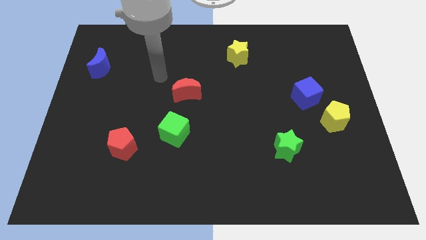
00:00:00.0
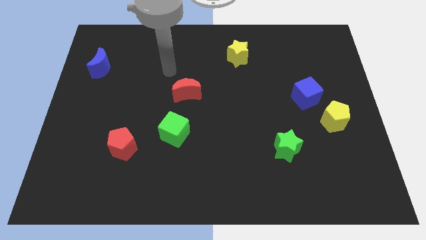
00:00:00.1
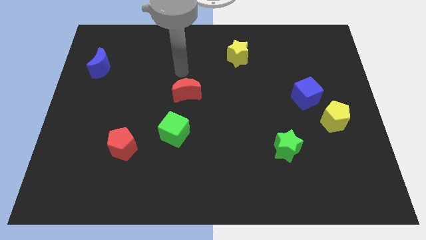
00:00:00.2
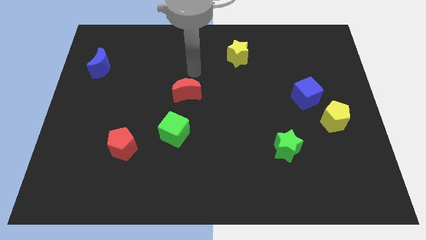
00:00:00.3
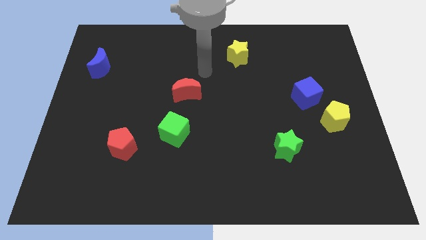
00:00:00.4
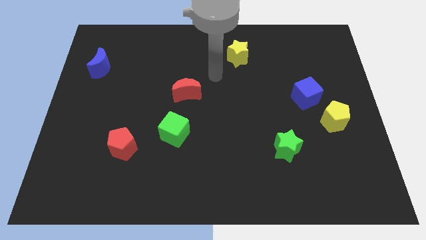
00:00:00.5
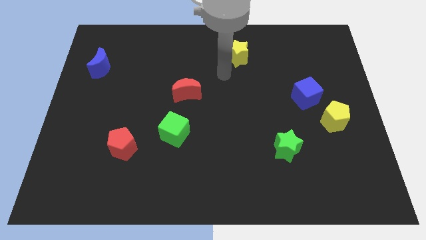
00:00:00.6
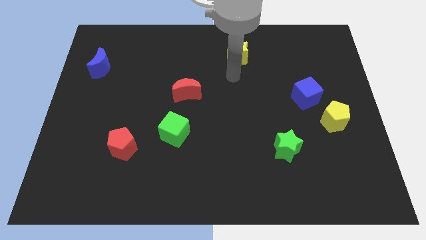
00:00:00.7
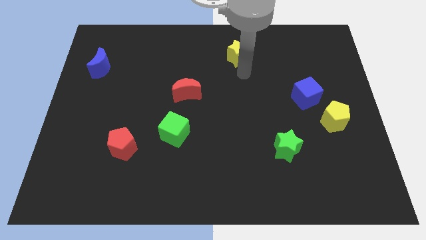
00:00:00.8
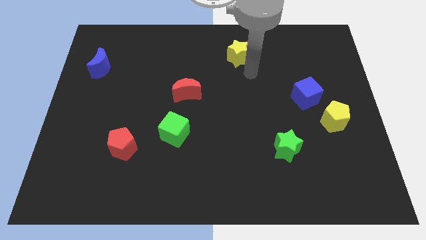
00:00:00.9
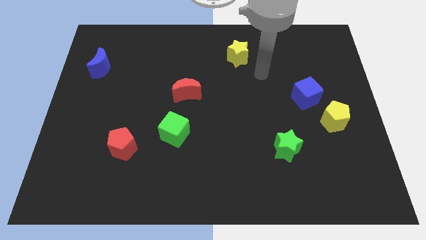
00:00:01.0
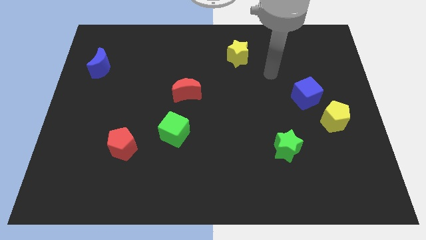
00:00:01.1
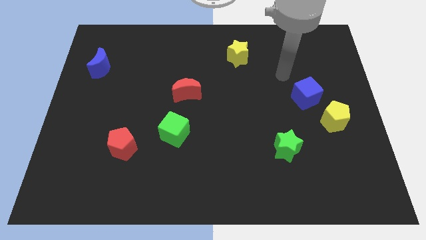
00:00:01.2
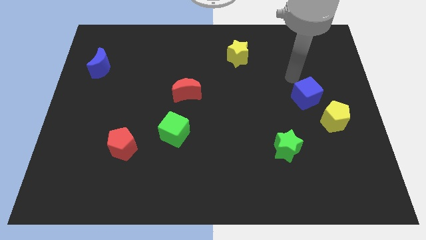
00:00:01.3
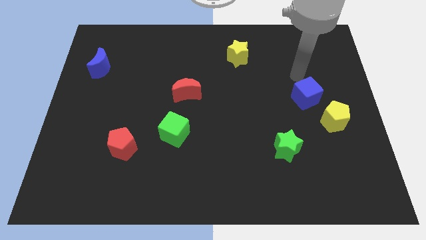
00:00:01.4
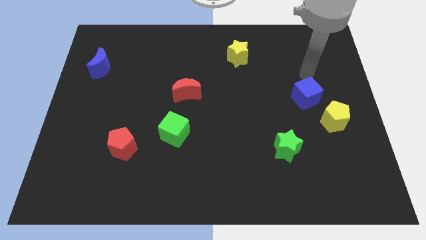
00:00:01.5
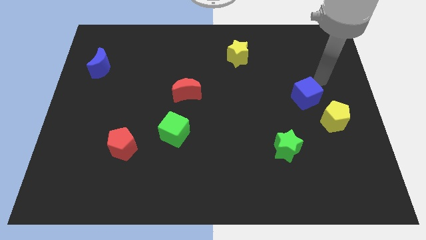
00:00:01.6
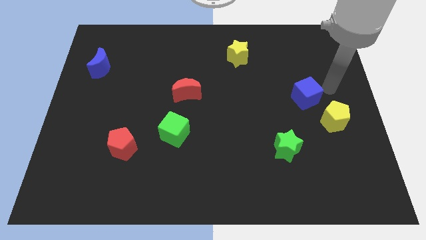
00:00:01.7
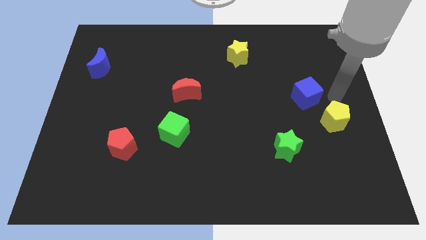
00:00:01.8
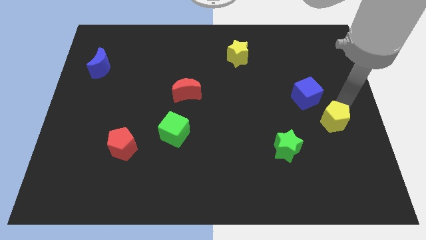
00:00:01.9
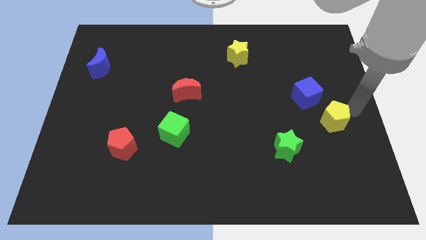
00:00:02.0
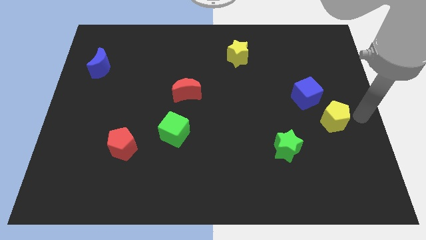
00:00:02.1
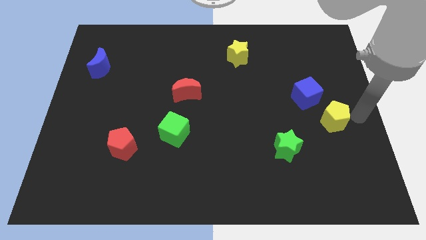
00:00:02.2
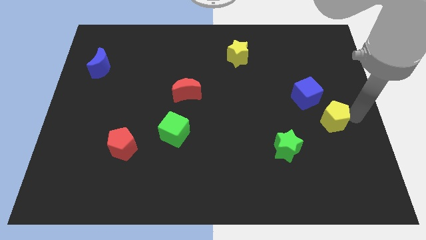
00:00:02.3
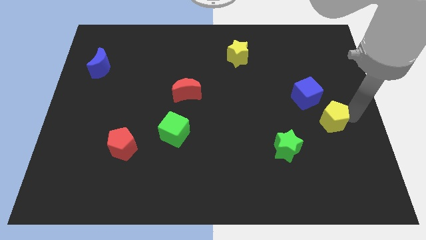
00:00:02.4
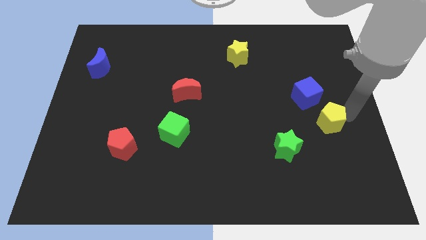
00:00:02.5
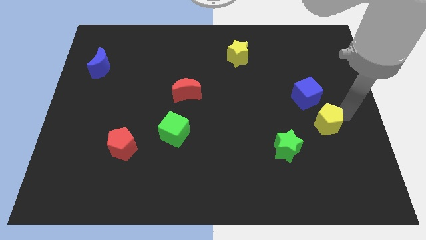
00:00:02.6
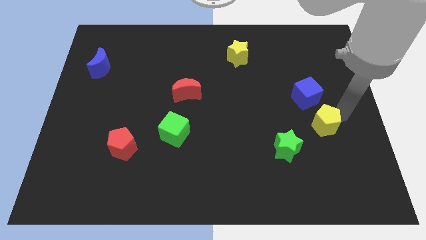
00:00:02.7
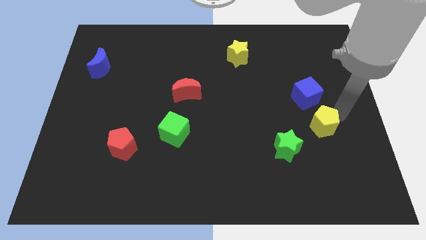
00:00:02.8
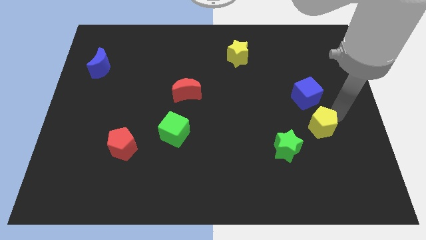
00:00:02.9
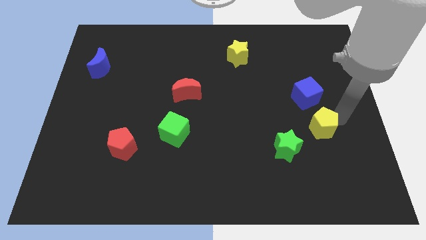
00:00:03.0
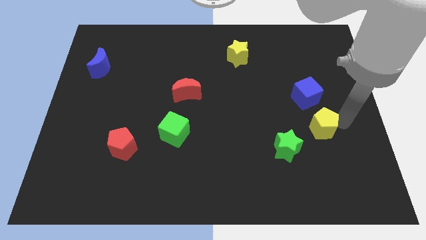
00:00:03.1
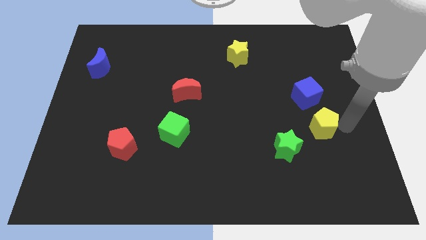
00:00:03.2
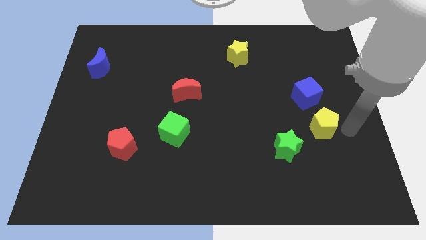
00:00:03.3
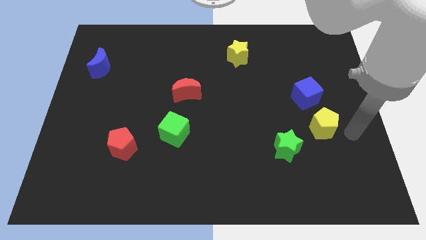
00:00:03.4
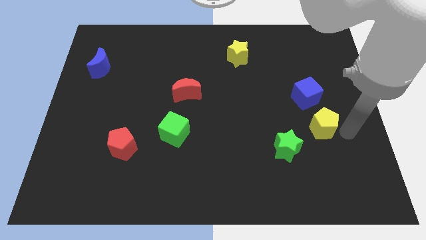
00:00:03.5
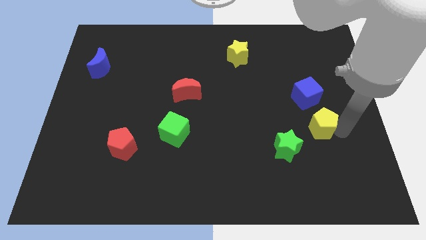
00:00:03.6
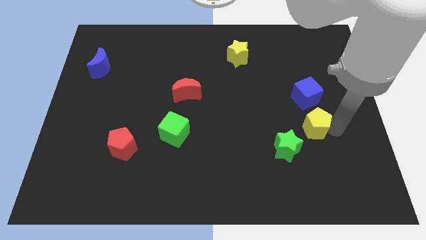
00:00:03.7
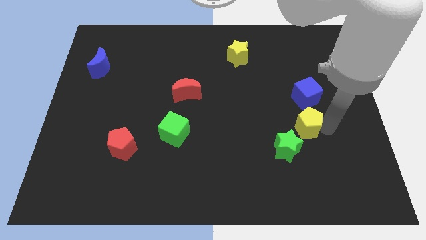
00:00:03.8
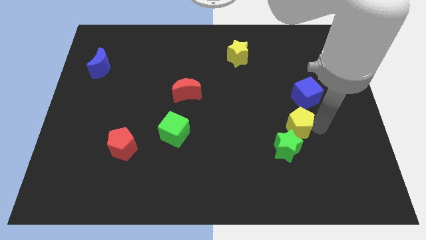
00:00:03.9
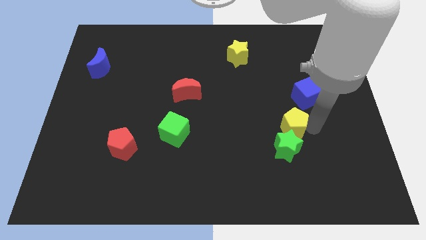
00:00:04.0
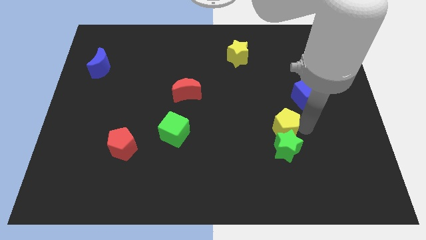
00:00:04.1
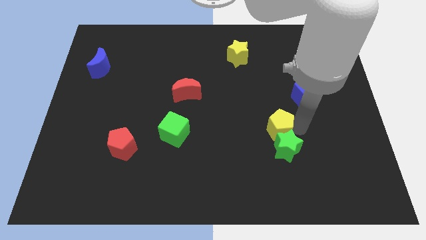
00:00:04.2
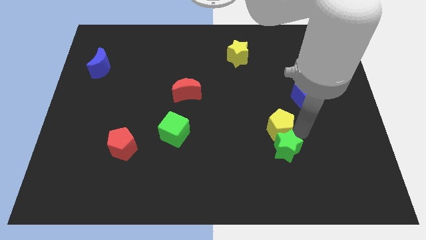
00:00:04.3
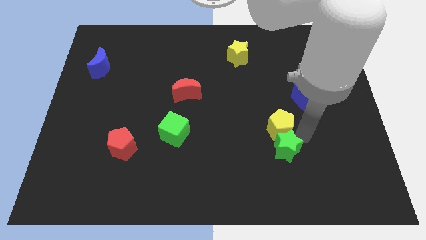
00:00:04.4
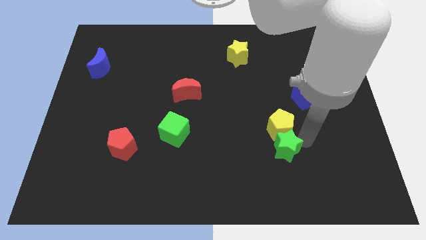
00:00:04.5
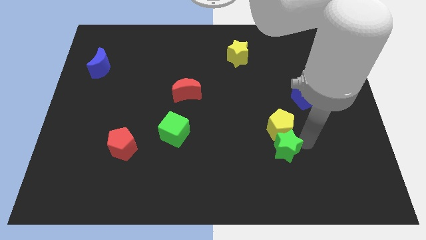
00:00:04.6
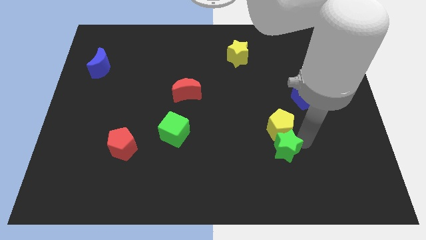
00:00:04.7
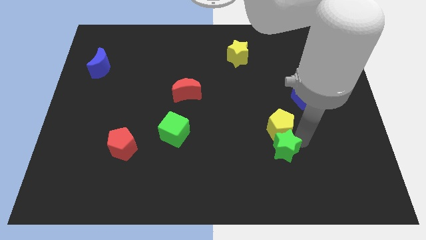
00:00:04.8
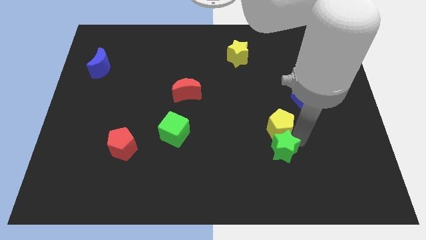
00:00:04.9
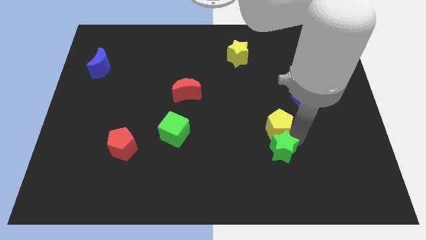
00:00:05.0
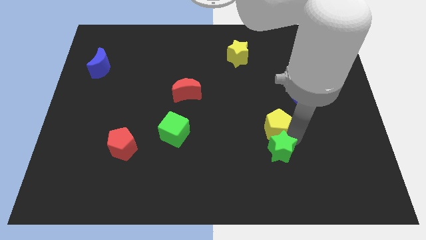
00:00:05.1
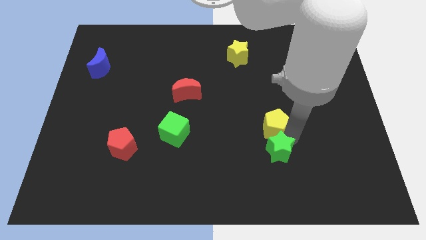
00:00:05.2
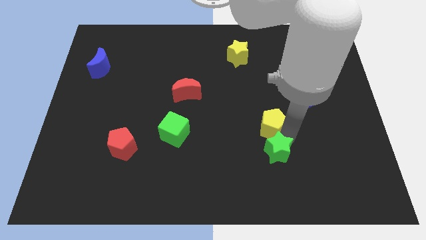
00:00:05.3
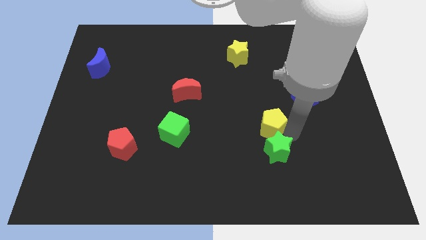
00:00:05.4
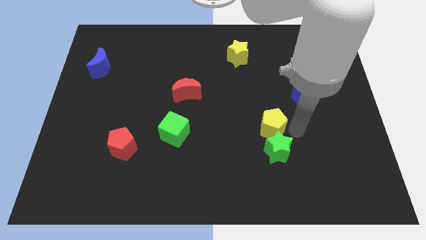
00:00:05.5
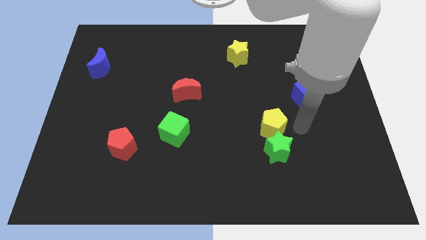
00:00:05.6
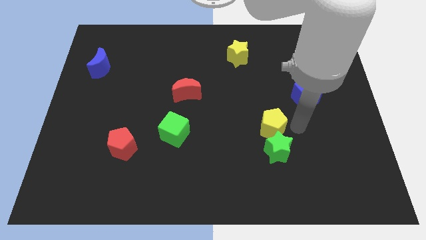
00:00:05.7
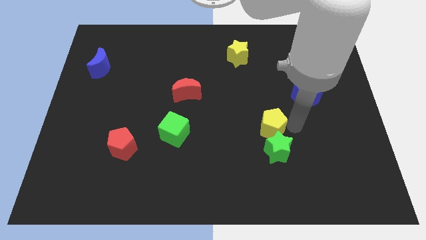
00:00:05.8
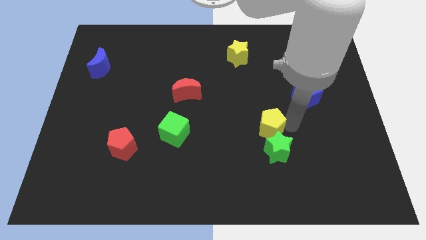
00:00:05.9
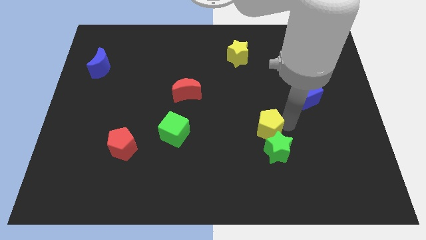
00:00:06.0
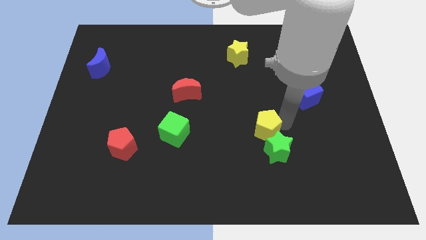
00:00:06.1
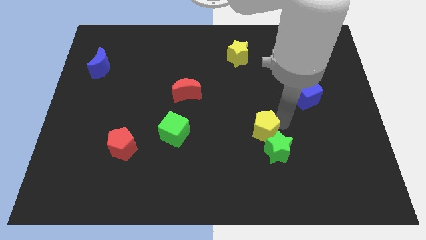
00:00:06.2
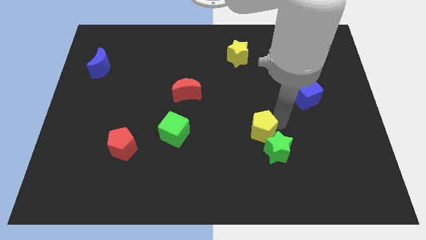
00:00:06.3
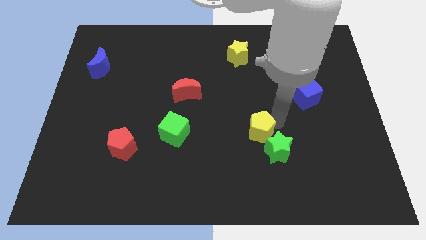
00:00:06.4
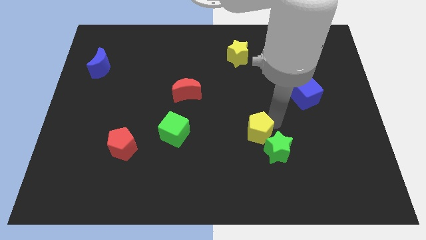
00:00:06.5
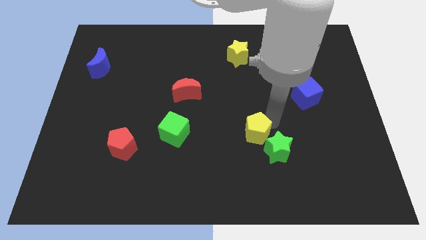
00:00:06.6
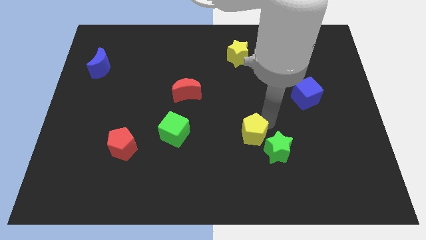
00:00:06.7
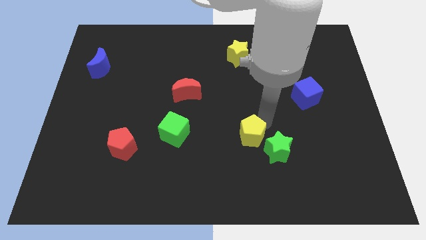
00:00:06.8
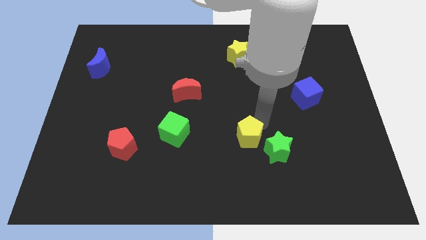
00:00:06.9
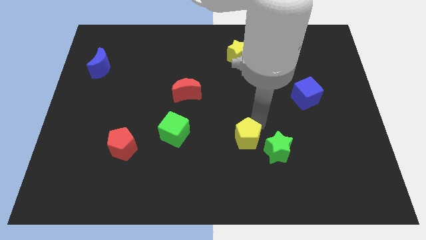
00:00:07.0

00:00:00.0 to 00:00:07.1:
slide the yellow pentagon to the right side of the green cube

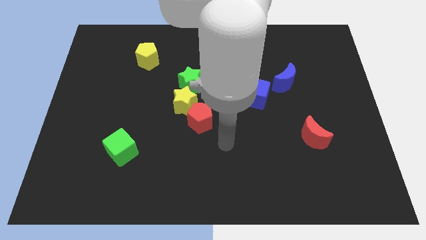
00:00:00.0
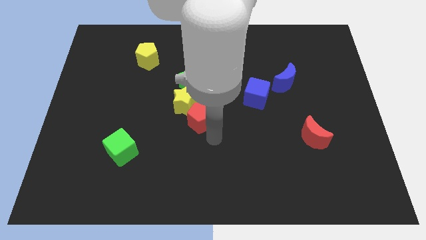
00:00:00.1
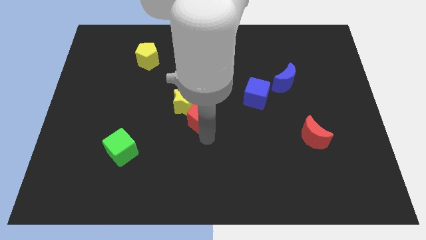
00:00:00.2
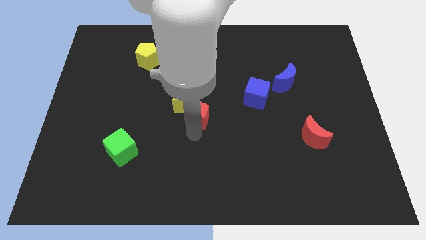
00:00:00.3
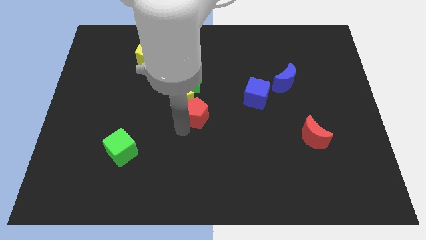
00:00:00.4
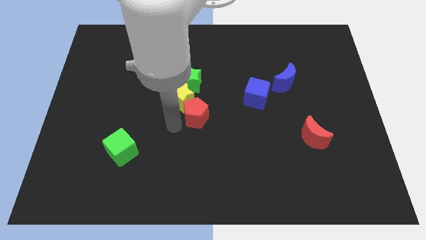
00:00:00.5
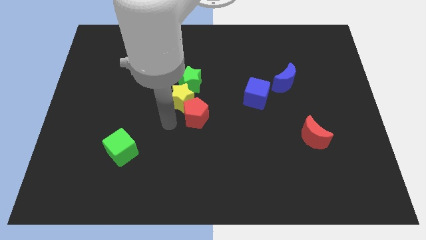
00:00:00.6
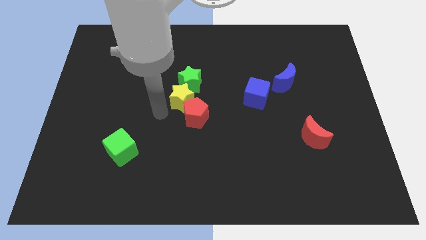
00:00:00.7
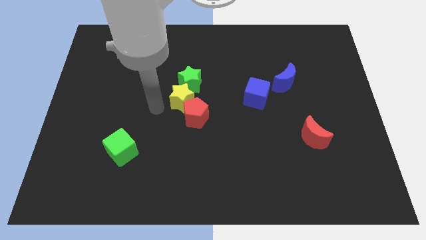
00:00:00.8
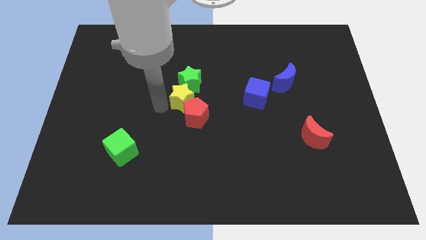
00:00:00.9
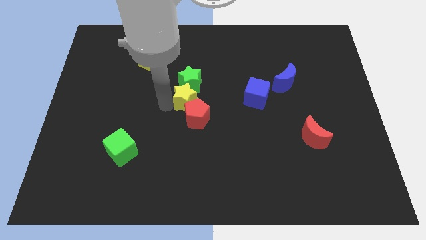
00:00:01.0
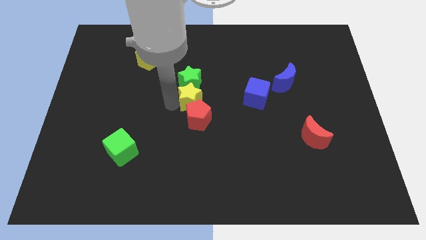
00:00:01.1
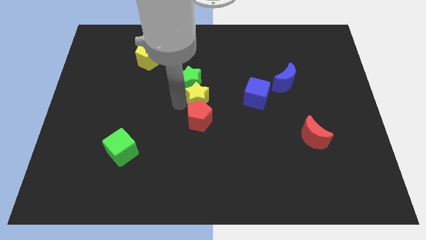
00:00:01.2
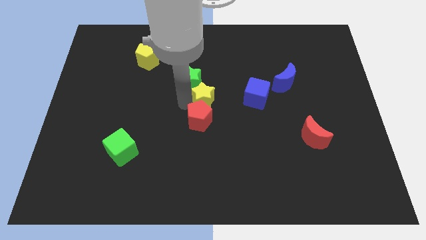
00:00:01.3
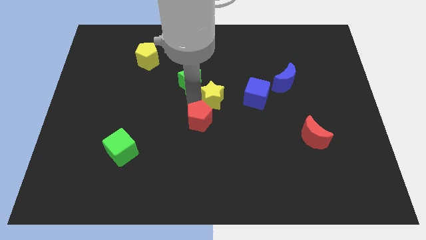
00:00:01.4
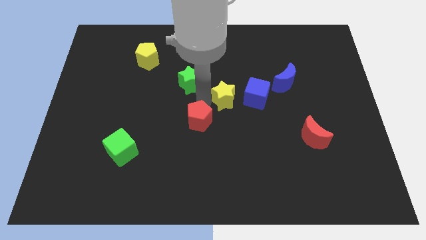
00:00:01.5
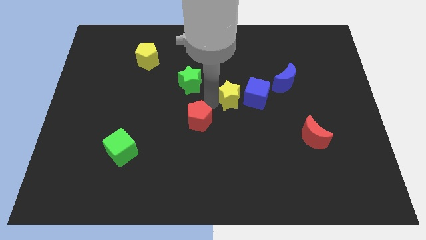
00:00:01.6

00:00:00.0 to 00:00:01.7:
slide the yellow star to the top left side of the blue cube
